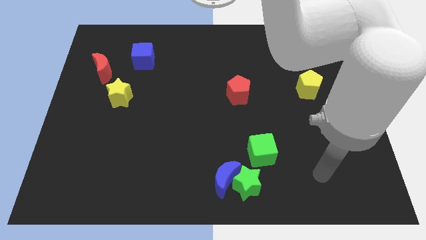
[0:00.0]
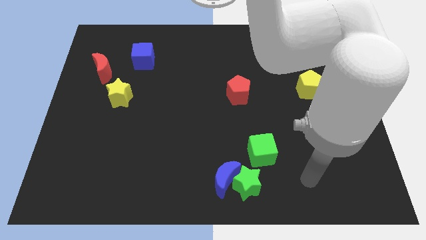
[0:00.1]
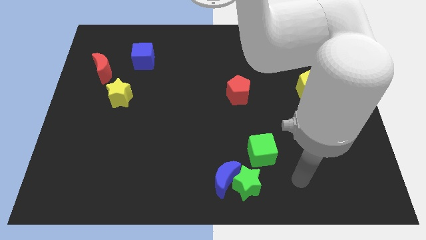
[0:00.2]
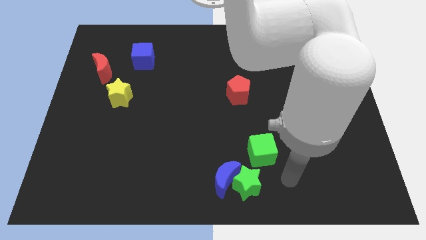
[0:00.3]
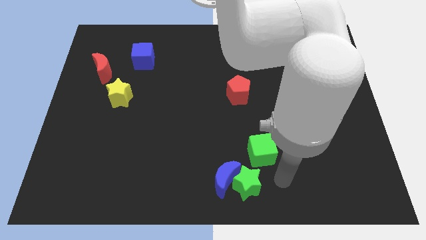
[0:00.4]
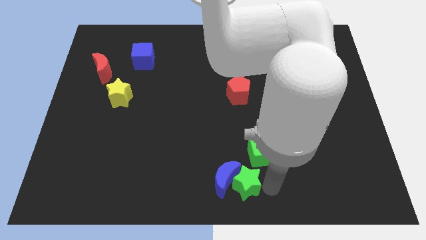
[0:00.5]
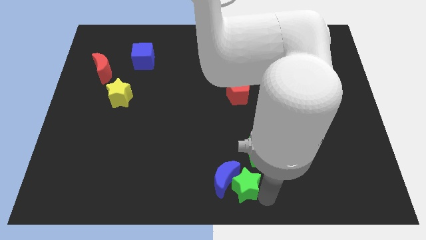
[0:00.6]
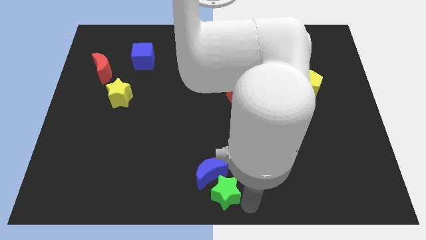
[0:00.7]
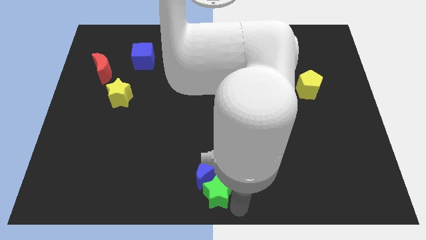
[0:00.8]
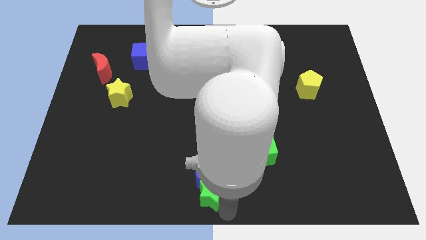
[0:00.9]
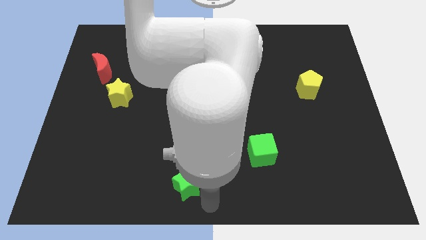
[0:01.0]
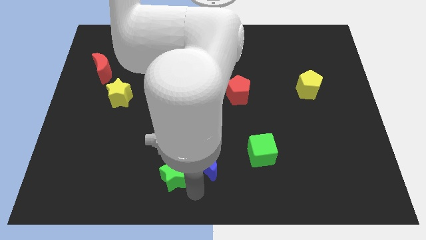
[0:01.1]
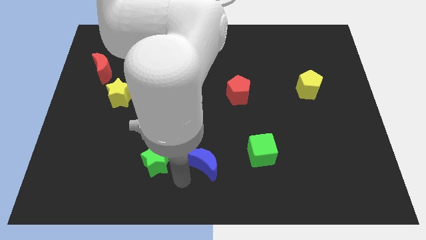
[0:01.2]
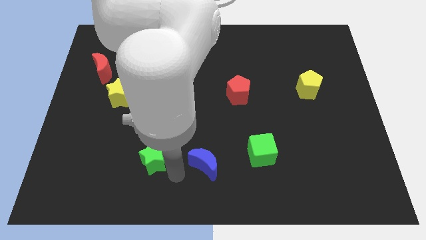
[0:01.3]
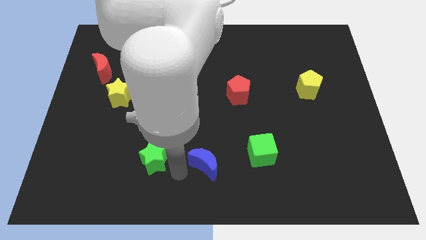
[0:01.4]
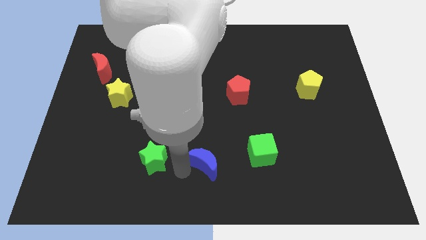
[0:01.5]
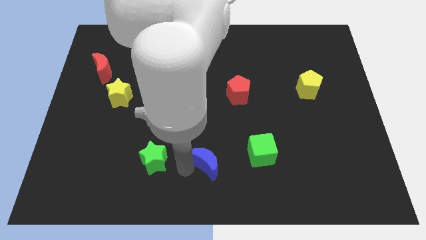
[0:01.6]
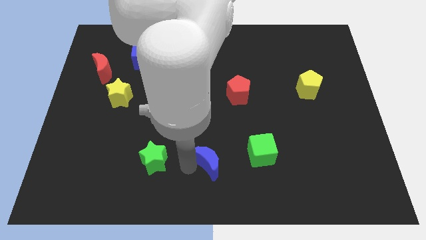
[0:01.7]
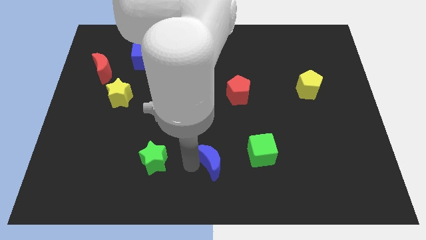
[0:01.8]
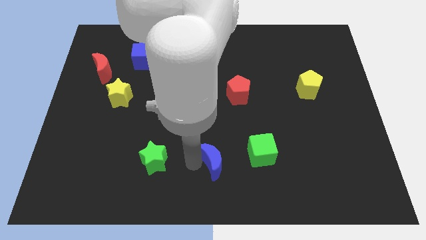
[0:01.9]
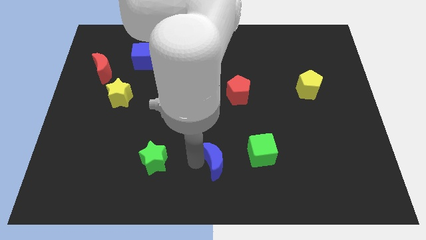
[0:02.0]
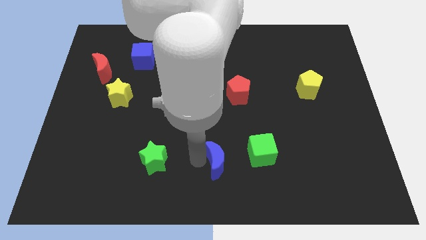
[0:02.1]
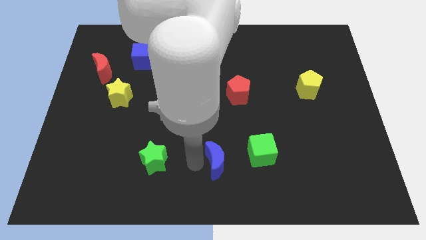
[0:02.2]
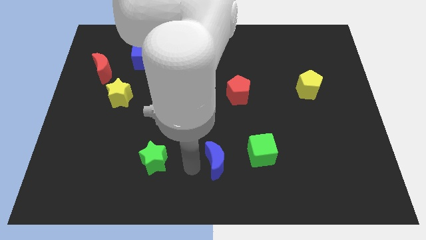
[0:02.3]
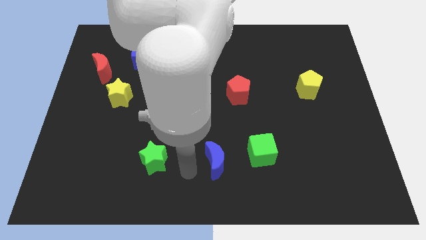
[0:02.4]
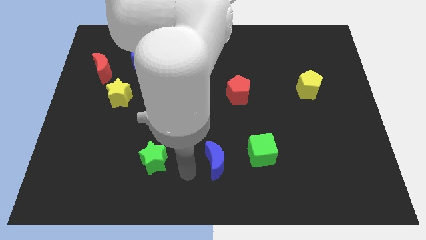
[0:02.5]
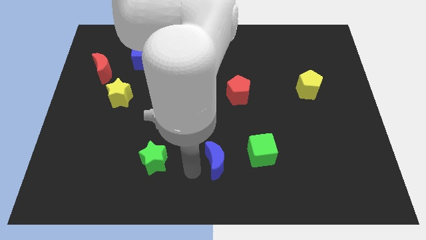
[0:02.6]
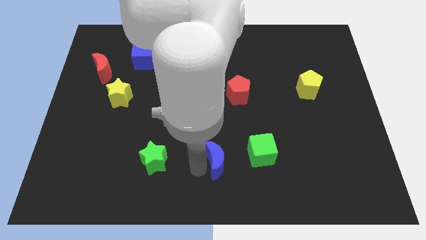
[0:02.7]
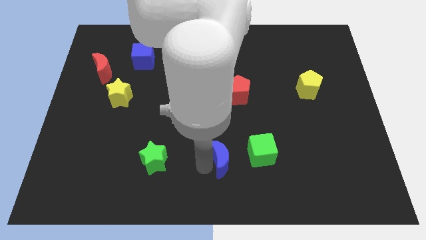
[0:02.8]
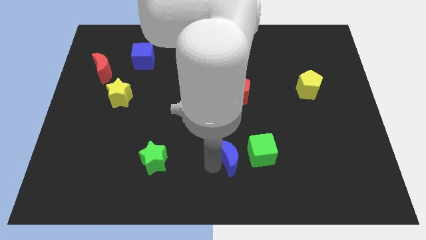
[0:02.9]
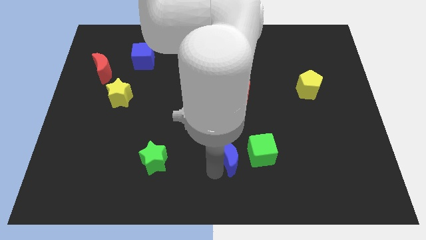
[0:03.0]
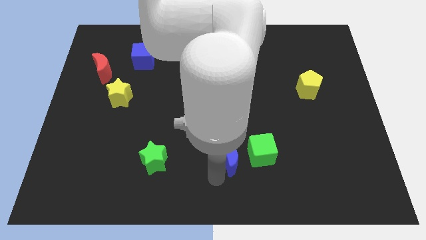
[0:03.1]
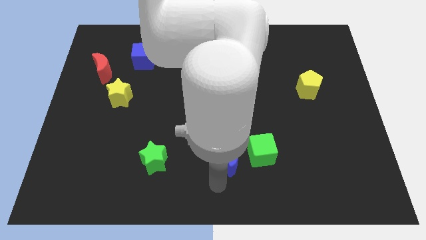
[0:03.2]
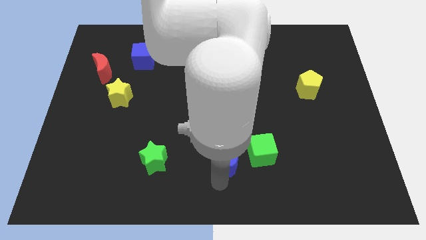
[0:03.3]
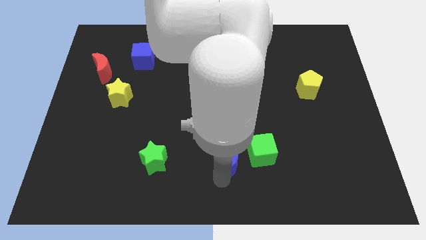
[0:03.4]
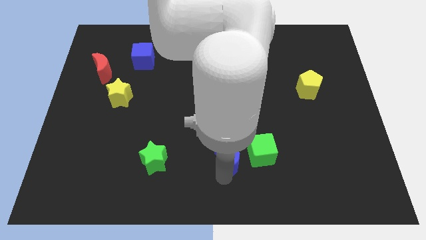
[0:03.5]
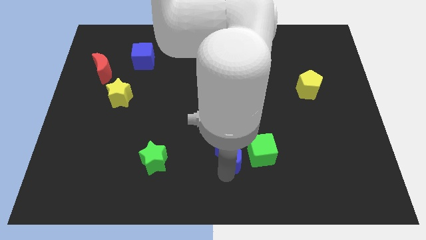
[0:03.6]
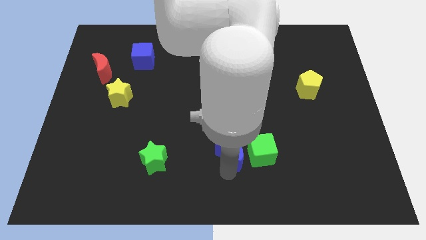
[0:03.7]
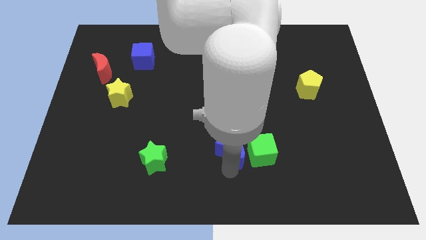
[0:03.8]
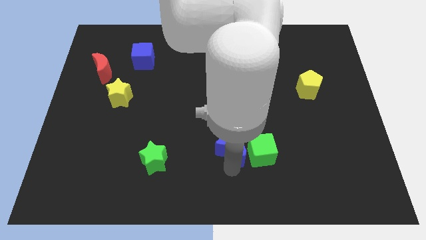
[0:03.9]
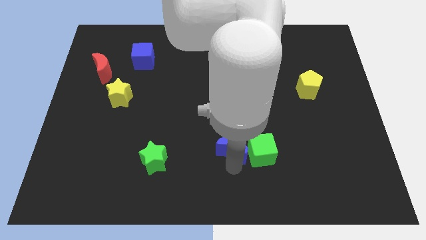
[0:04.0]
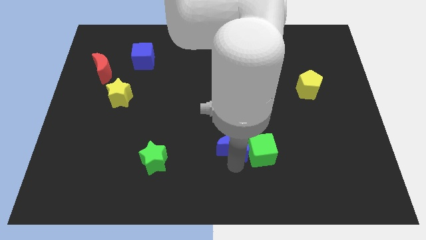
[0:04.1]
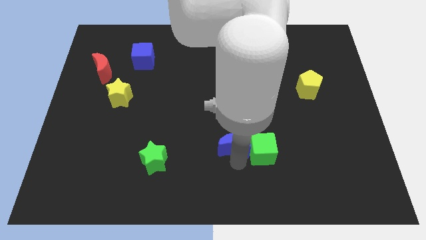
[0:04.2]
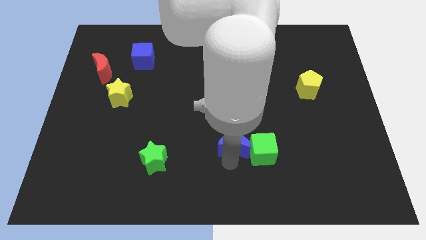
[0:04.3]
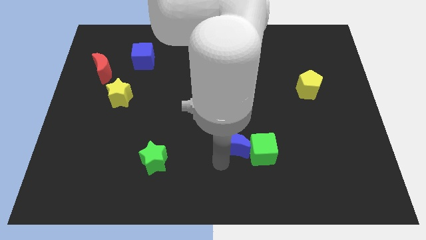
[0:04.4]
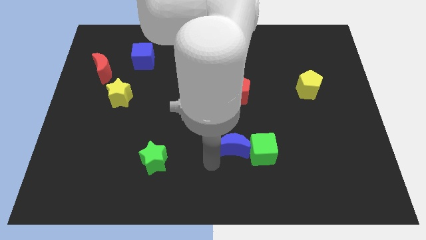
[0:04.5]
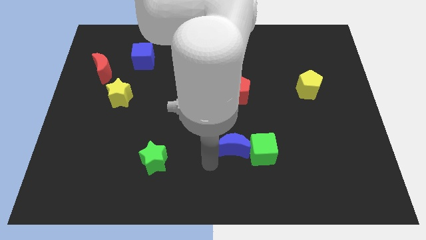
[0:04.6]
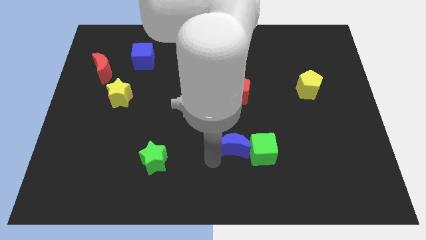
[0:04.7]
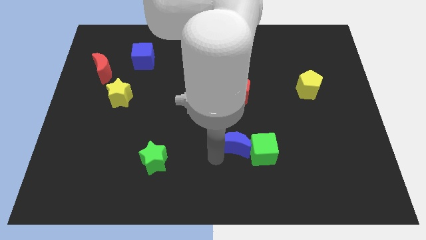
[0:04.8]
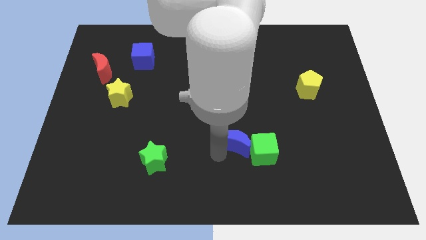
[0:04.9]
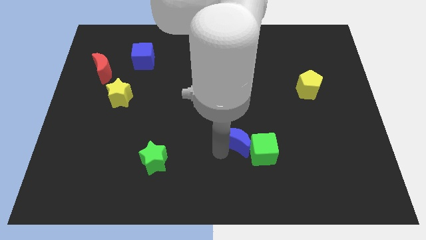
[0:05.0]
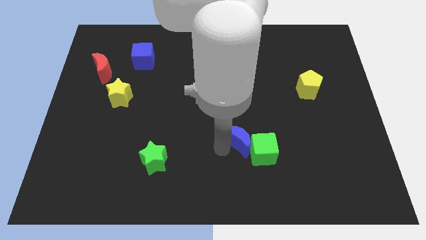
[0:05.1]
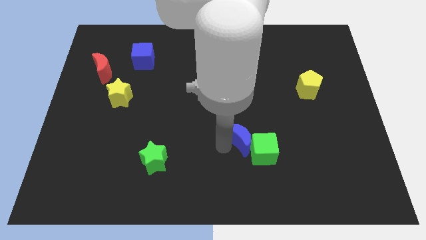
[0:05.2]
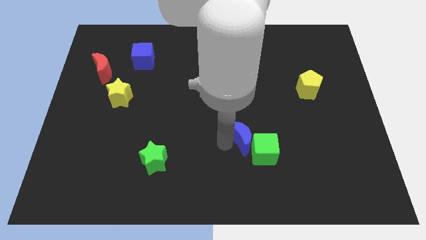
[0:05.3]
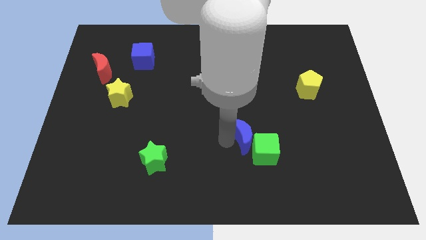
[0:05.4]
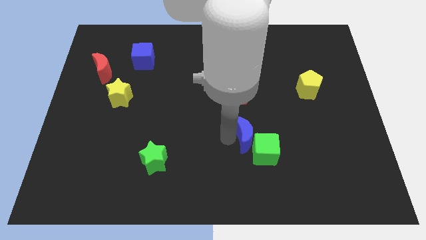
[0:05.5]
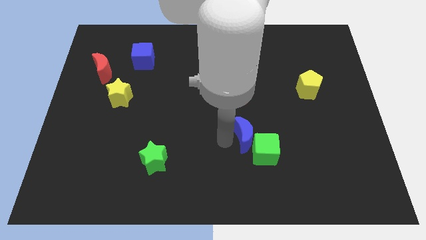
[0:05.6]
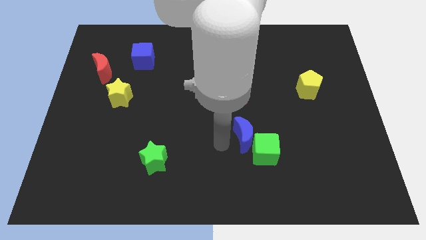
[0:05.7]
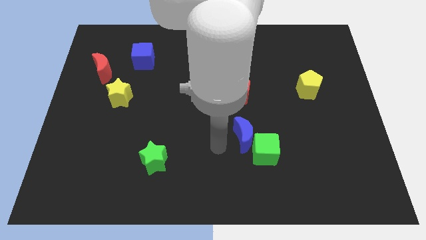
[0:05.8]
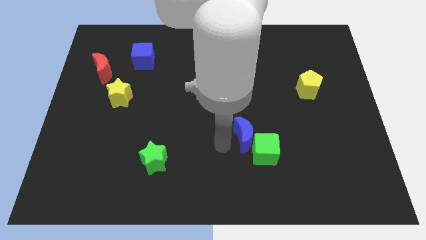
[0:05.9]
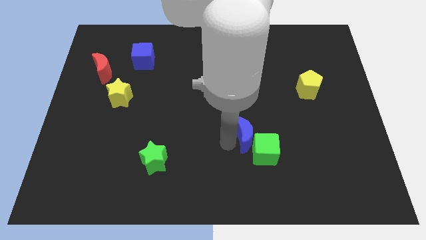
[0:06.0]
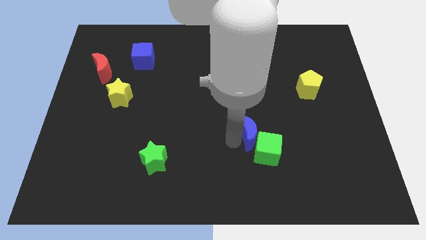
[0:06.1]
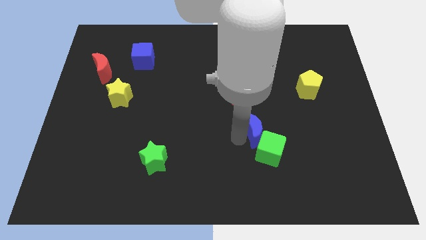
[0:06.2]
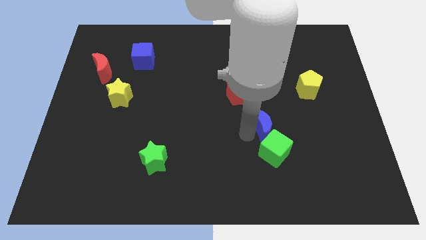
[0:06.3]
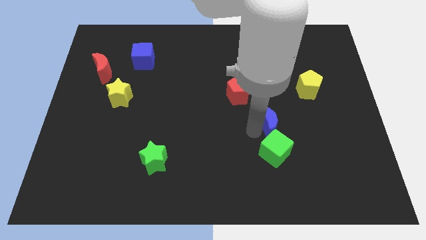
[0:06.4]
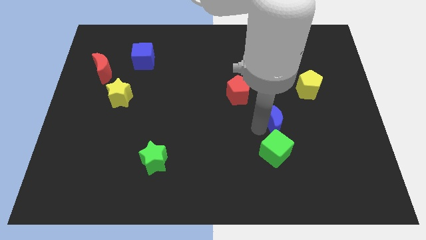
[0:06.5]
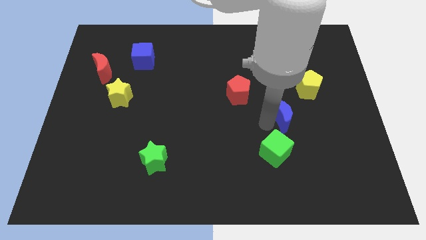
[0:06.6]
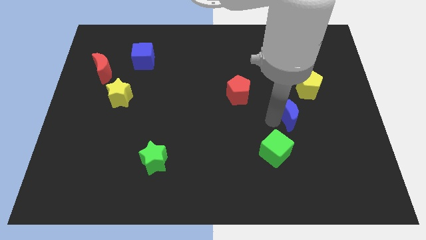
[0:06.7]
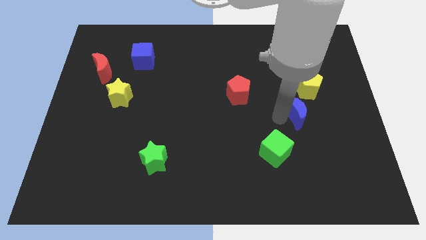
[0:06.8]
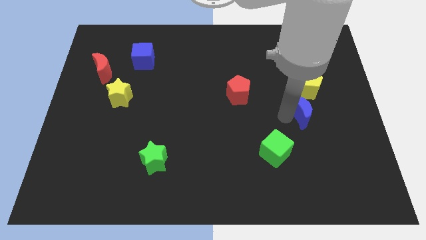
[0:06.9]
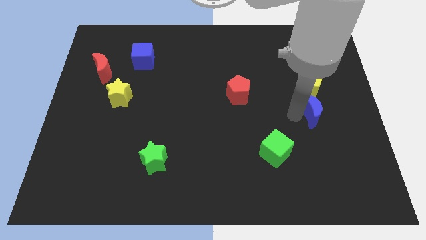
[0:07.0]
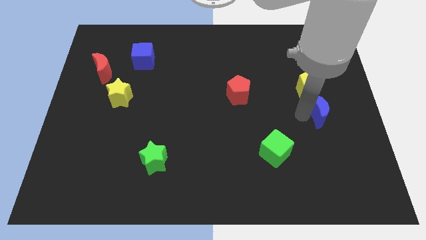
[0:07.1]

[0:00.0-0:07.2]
push the blue moon to the bottom right of the yellow pentagon

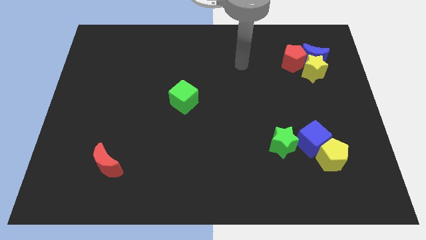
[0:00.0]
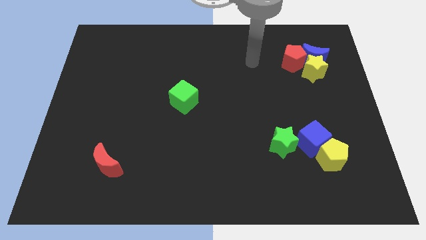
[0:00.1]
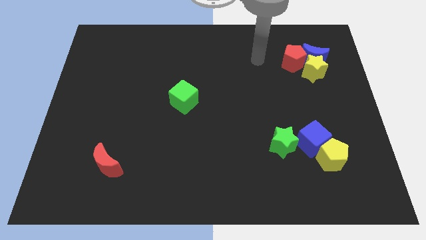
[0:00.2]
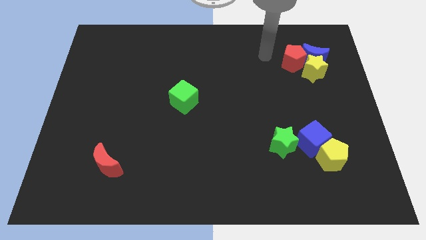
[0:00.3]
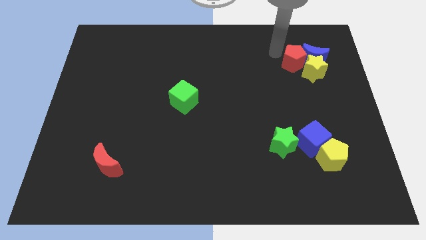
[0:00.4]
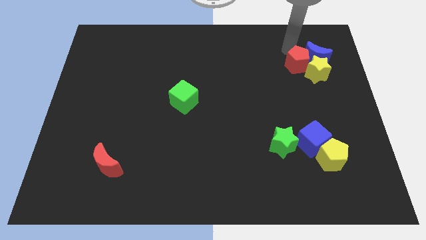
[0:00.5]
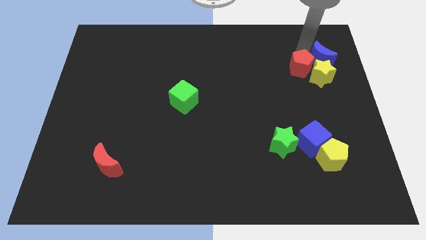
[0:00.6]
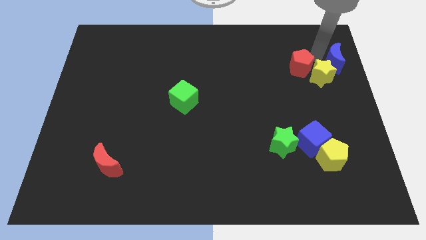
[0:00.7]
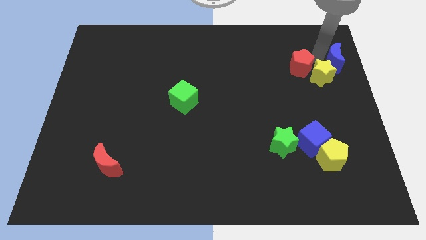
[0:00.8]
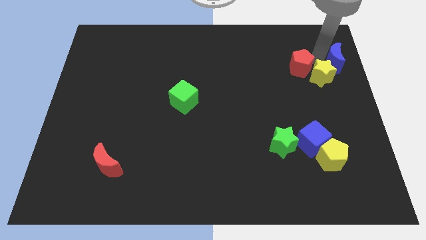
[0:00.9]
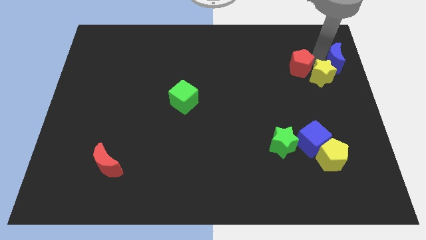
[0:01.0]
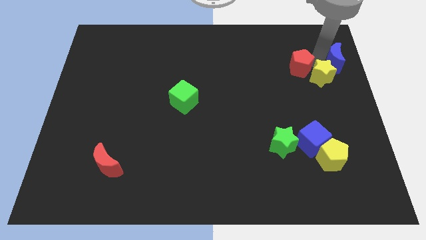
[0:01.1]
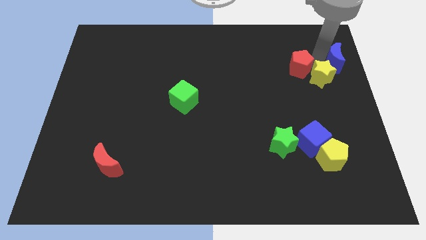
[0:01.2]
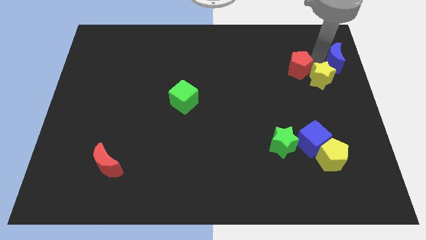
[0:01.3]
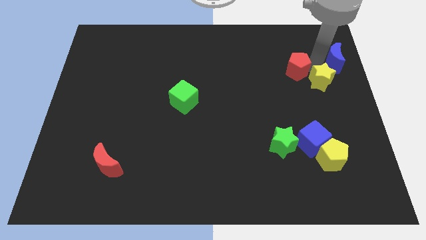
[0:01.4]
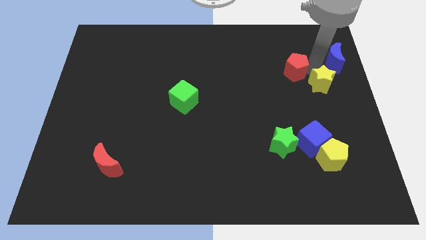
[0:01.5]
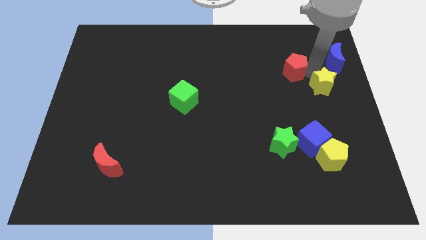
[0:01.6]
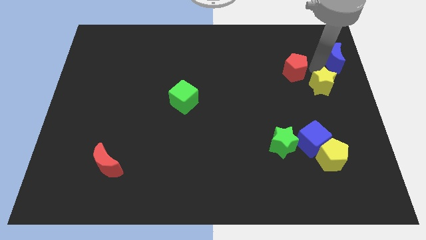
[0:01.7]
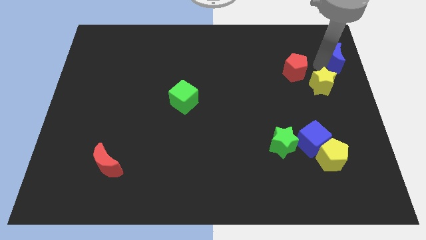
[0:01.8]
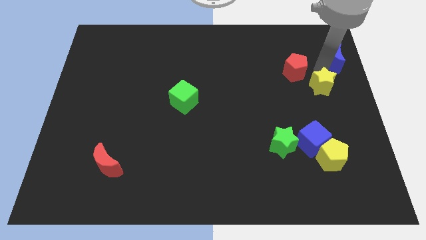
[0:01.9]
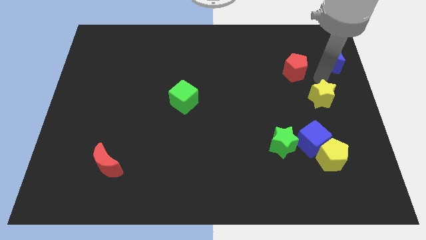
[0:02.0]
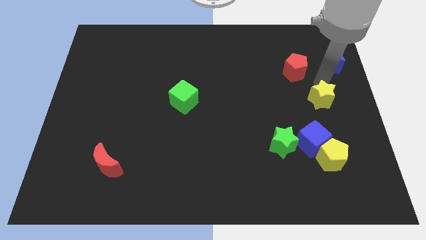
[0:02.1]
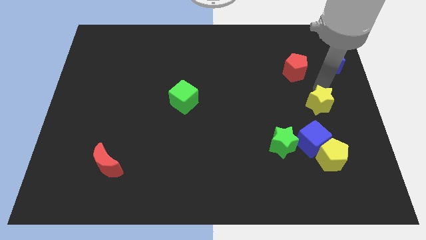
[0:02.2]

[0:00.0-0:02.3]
put the yellow star to the top side of the yellow pentagon
